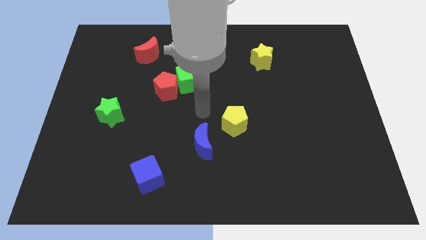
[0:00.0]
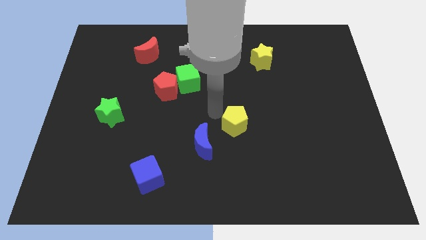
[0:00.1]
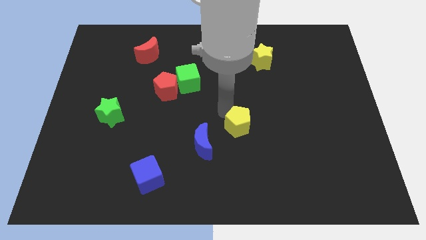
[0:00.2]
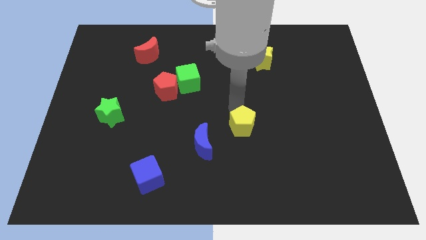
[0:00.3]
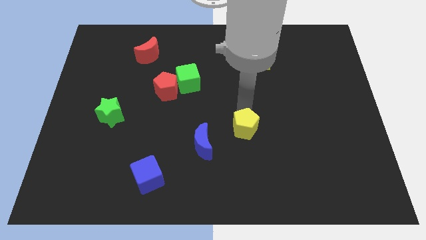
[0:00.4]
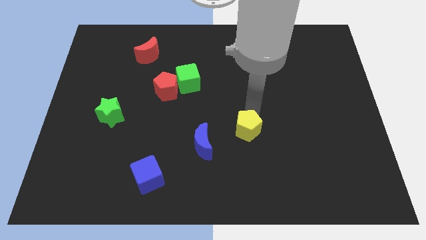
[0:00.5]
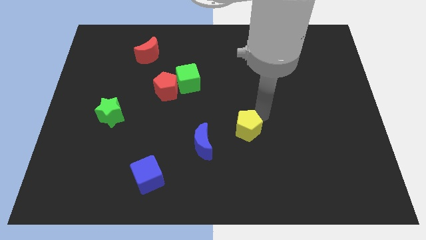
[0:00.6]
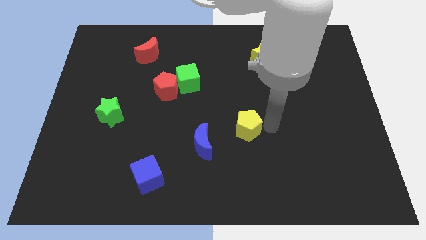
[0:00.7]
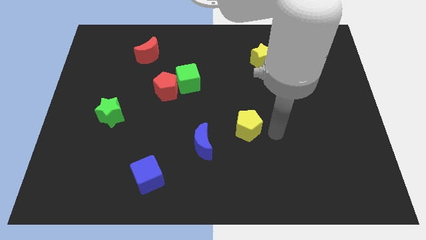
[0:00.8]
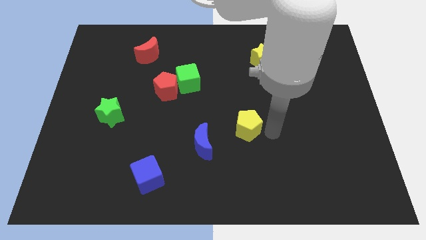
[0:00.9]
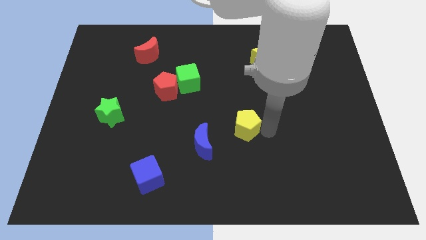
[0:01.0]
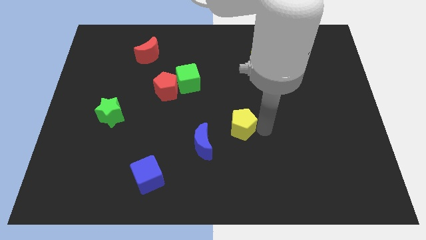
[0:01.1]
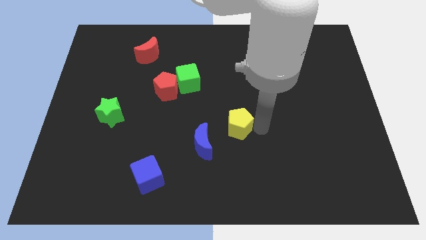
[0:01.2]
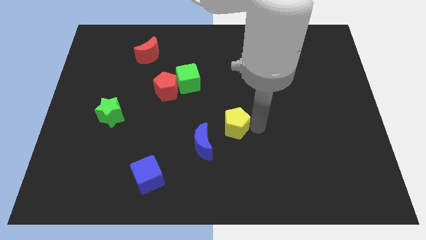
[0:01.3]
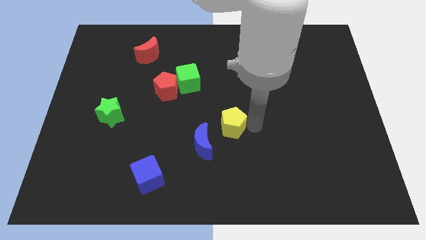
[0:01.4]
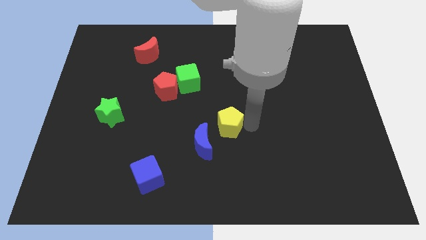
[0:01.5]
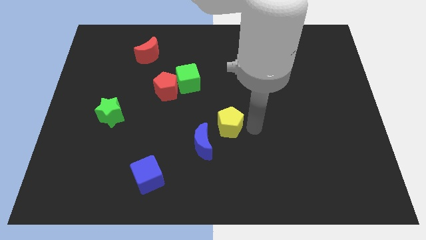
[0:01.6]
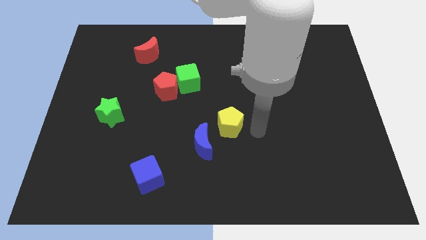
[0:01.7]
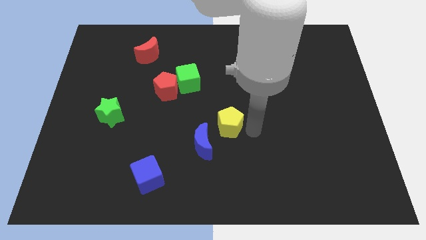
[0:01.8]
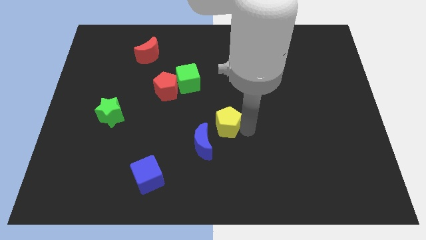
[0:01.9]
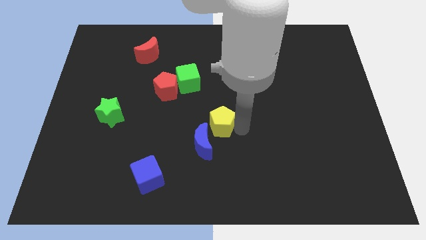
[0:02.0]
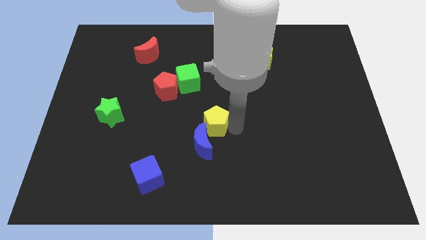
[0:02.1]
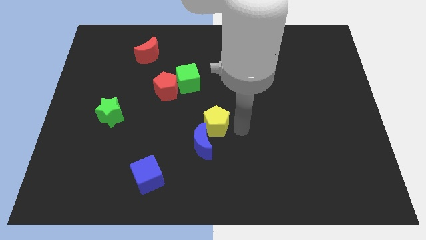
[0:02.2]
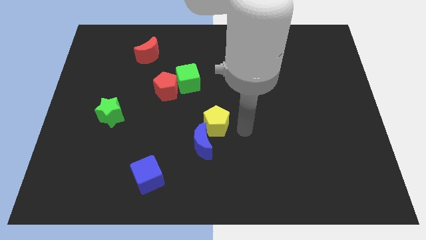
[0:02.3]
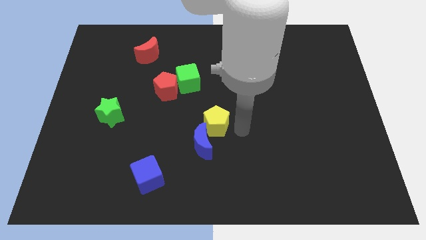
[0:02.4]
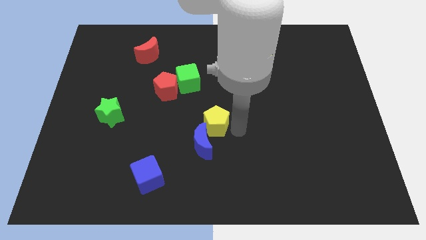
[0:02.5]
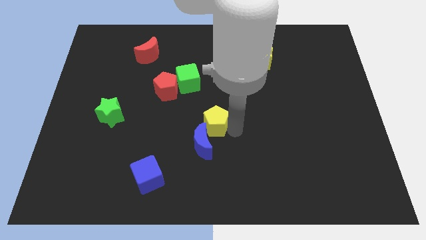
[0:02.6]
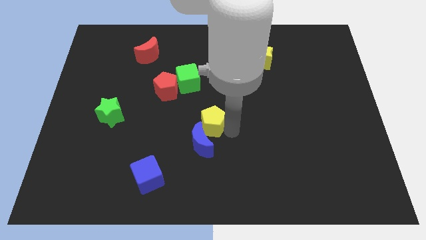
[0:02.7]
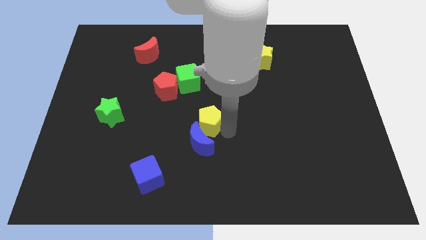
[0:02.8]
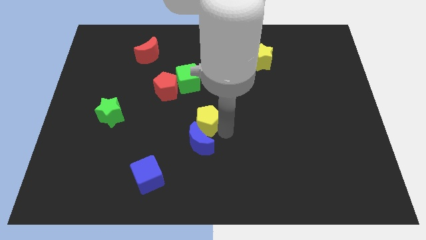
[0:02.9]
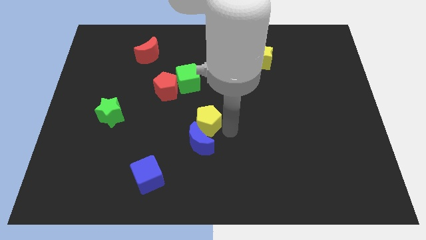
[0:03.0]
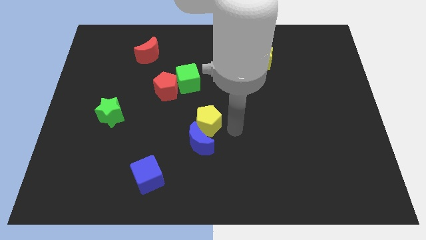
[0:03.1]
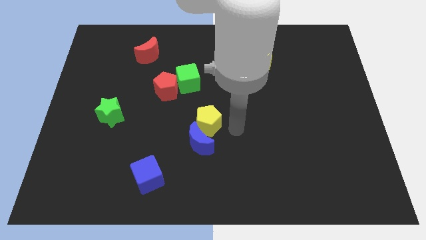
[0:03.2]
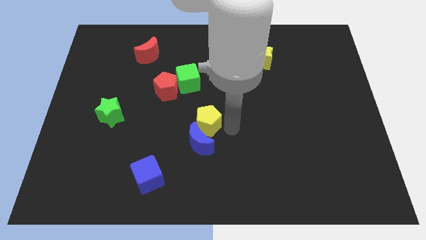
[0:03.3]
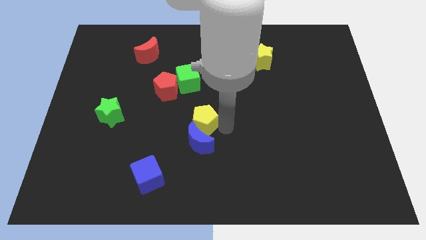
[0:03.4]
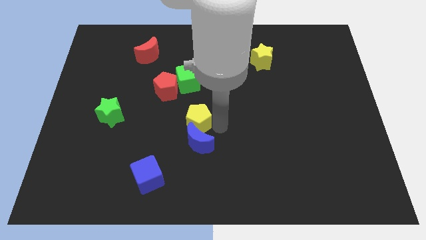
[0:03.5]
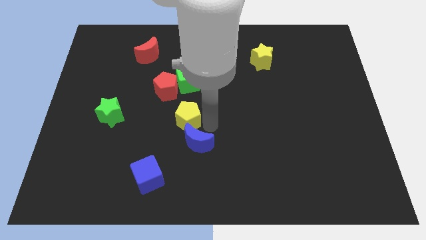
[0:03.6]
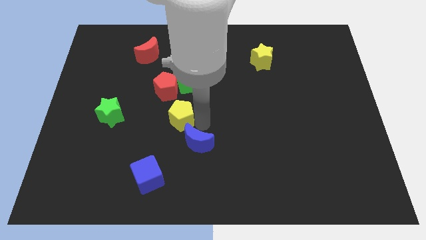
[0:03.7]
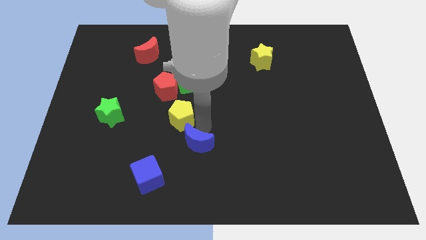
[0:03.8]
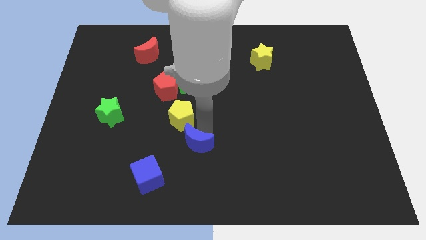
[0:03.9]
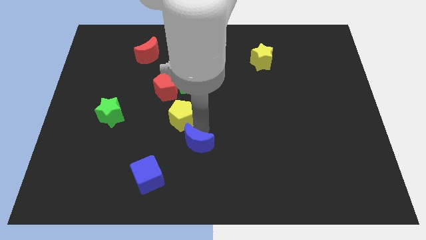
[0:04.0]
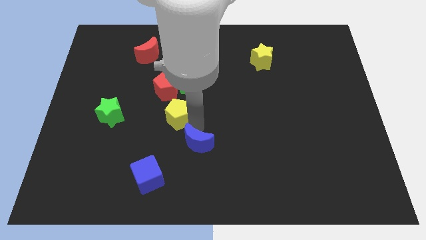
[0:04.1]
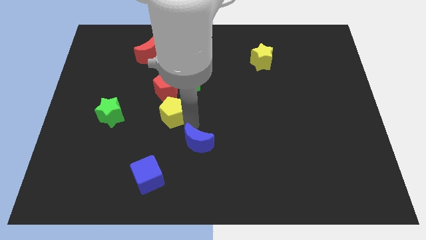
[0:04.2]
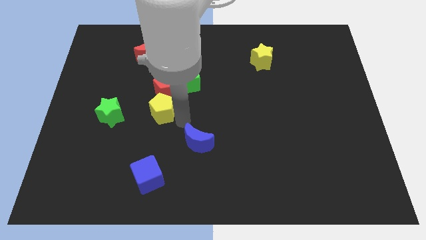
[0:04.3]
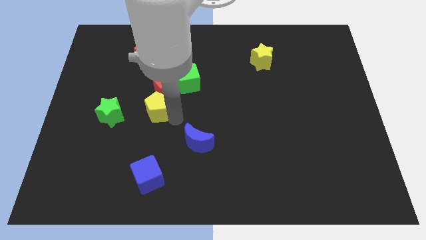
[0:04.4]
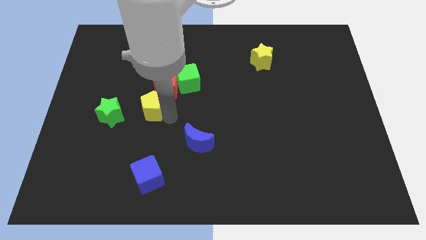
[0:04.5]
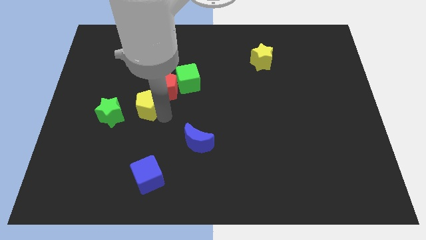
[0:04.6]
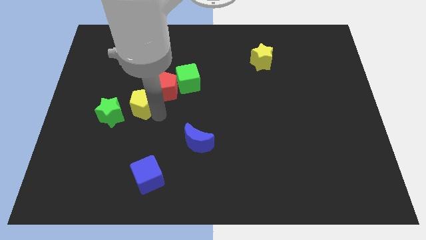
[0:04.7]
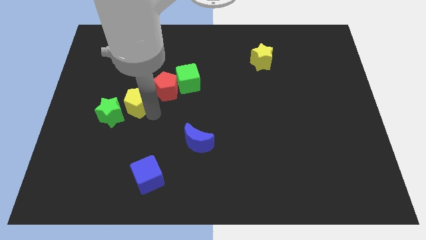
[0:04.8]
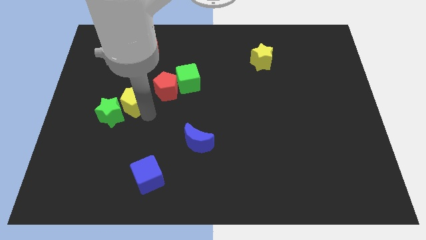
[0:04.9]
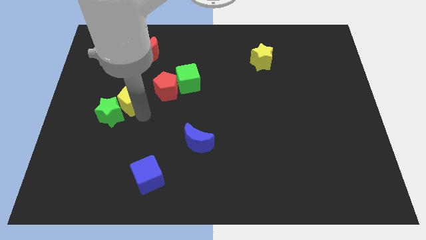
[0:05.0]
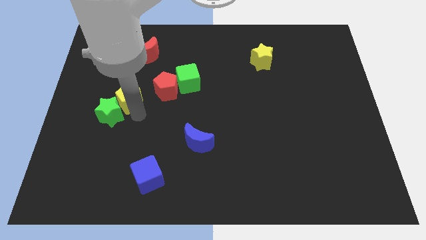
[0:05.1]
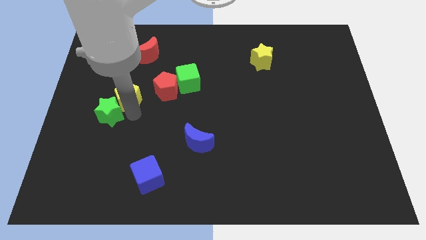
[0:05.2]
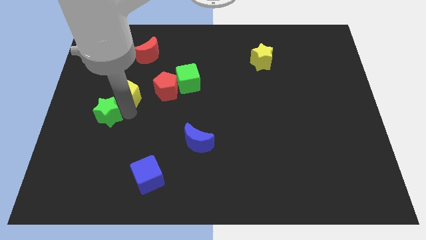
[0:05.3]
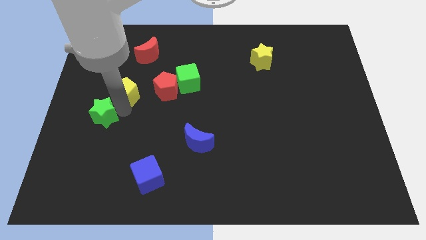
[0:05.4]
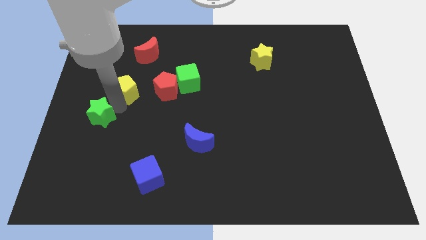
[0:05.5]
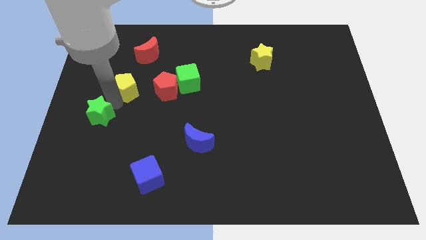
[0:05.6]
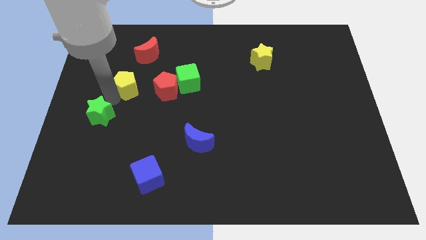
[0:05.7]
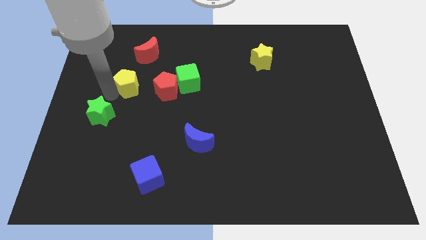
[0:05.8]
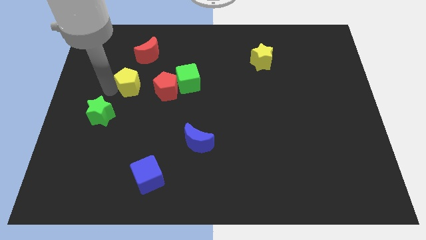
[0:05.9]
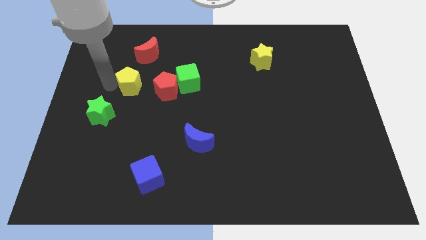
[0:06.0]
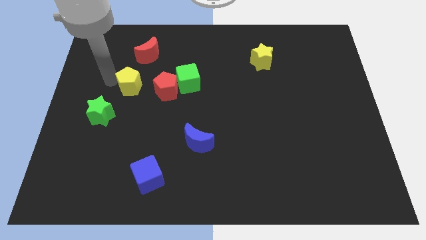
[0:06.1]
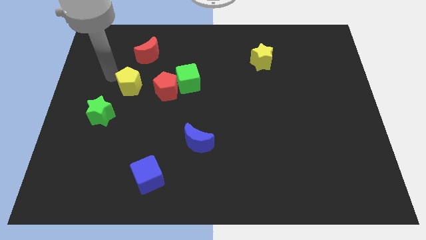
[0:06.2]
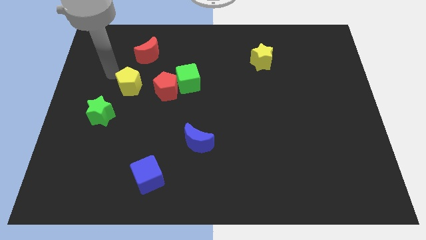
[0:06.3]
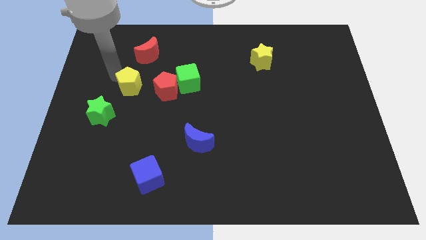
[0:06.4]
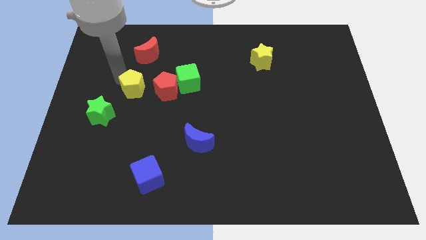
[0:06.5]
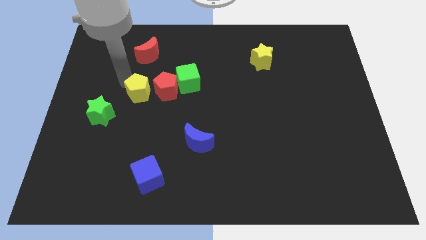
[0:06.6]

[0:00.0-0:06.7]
move the yellow pentagon diagonally up and to the left of the red pentagon
